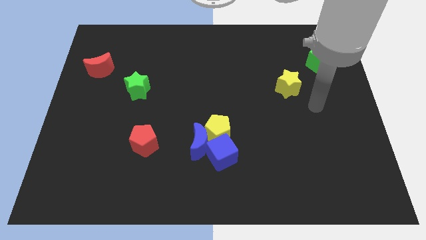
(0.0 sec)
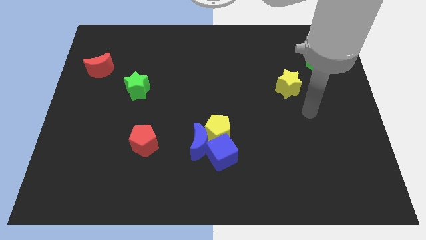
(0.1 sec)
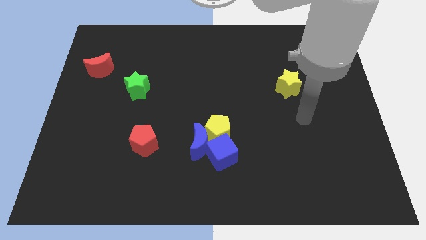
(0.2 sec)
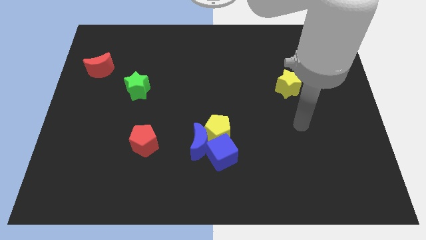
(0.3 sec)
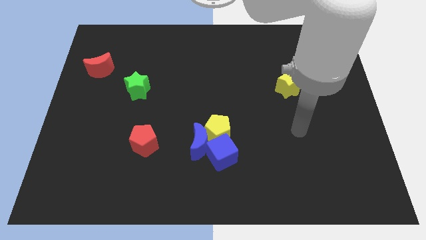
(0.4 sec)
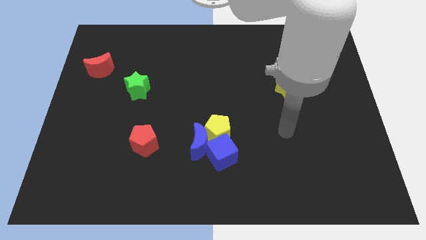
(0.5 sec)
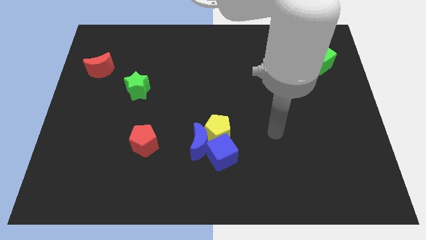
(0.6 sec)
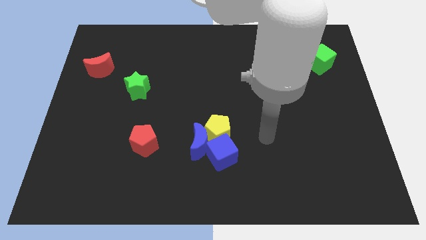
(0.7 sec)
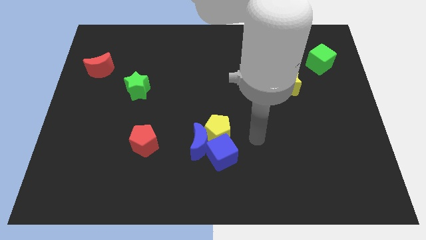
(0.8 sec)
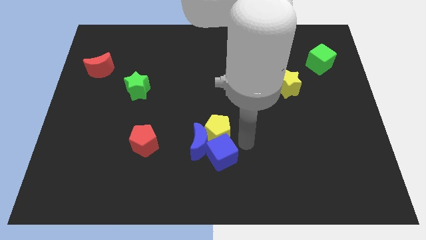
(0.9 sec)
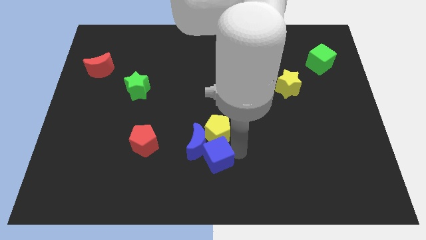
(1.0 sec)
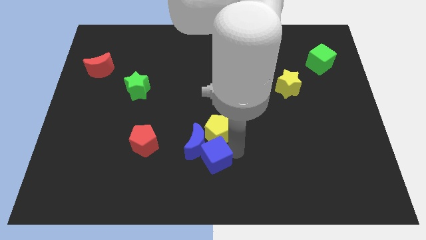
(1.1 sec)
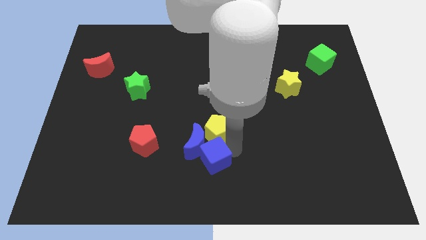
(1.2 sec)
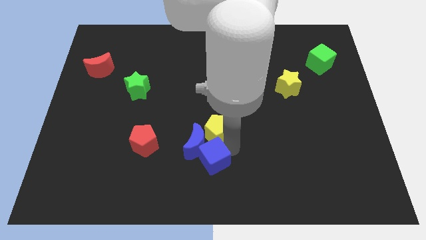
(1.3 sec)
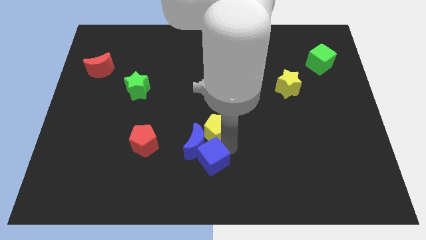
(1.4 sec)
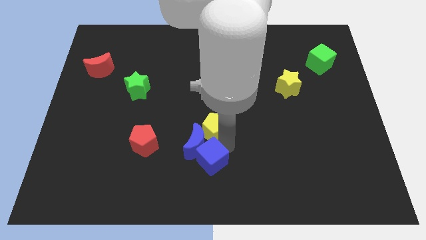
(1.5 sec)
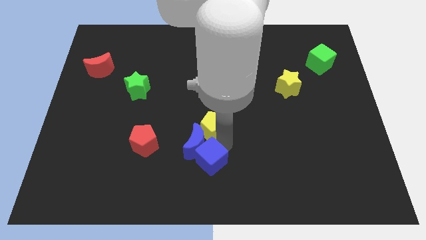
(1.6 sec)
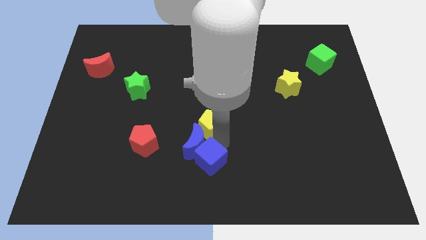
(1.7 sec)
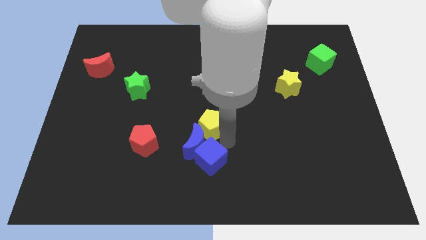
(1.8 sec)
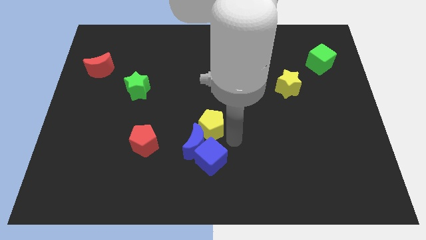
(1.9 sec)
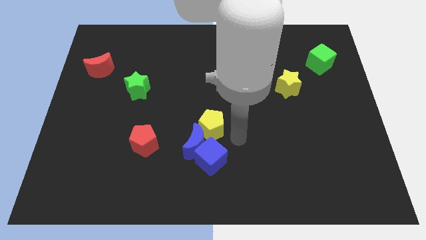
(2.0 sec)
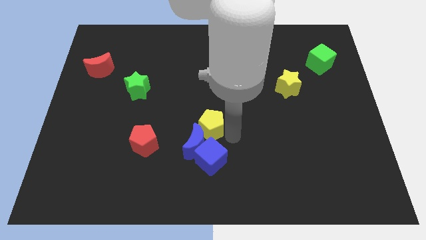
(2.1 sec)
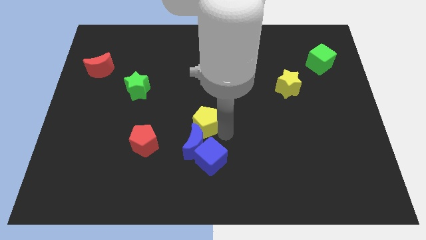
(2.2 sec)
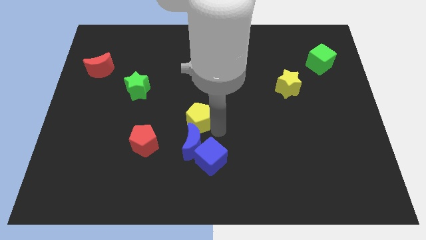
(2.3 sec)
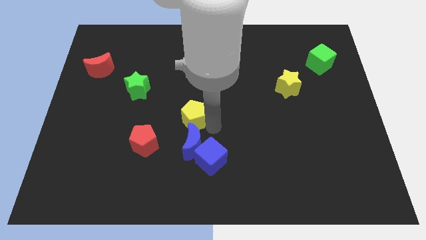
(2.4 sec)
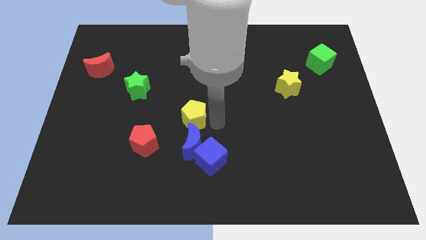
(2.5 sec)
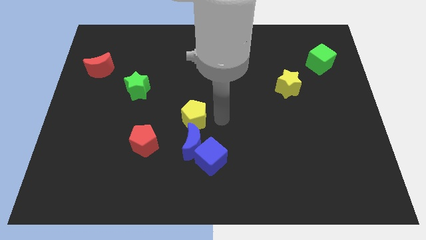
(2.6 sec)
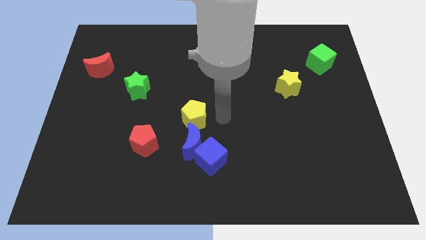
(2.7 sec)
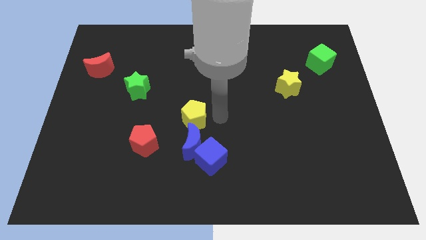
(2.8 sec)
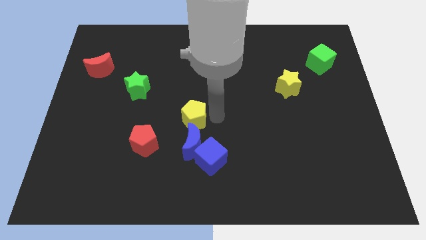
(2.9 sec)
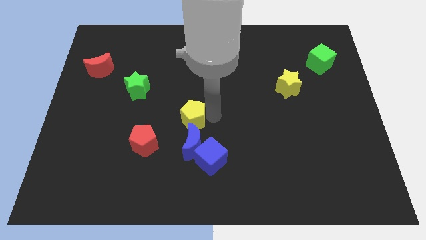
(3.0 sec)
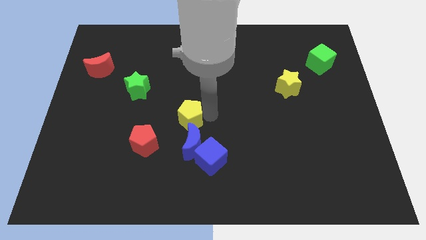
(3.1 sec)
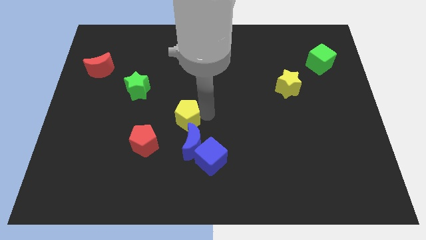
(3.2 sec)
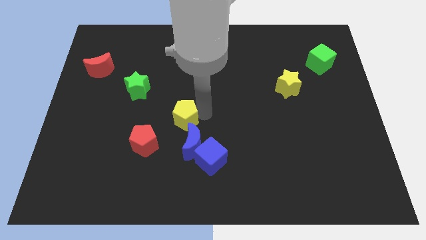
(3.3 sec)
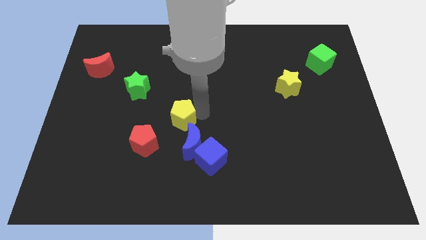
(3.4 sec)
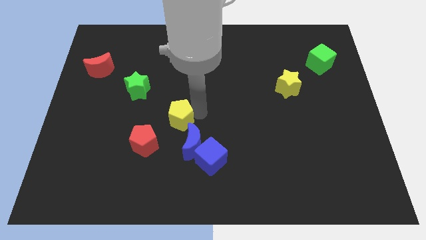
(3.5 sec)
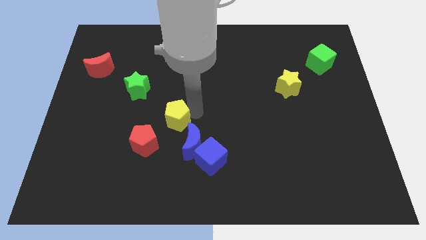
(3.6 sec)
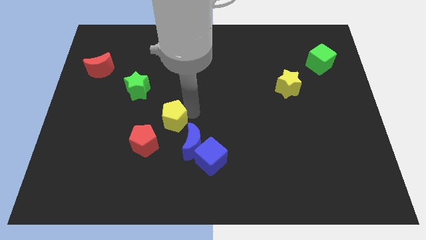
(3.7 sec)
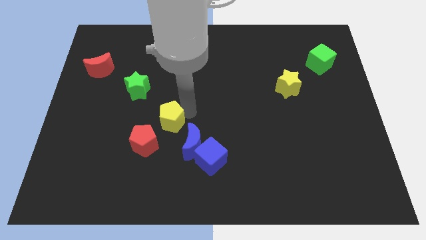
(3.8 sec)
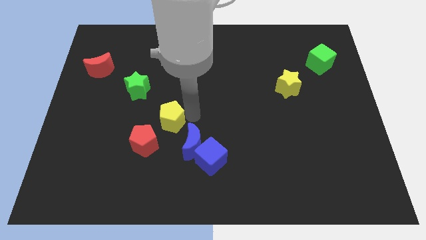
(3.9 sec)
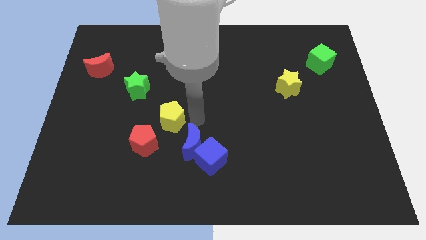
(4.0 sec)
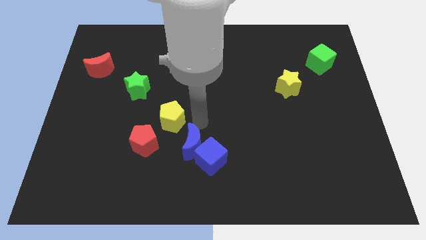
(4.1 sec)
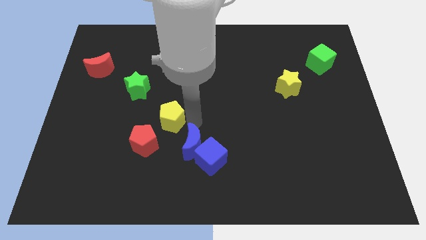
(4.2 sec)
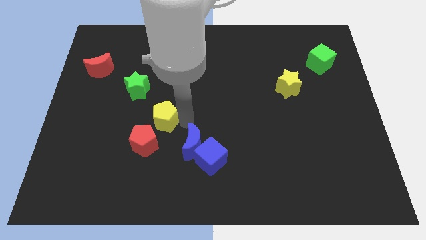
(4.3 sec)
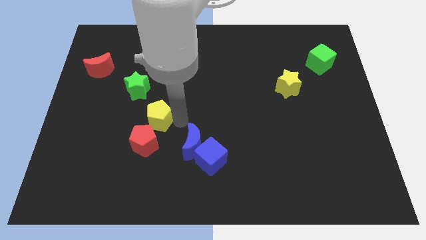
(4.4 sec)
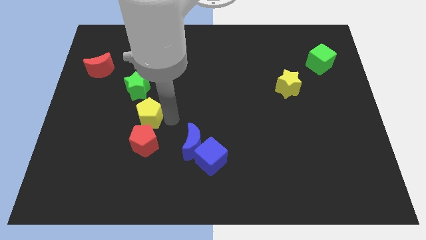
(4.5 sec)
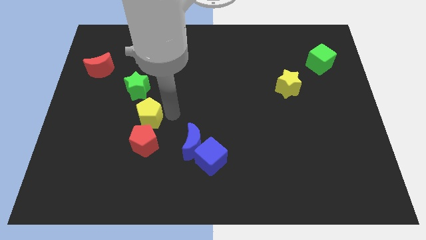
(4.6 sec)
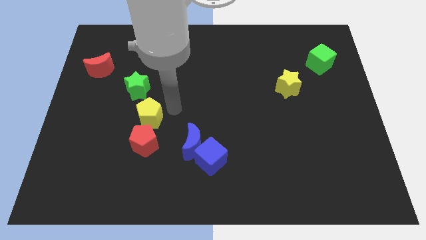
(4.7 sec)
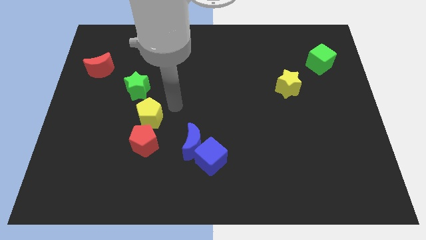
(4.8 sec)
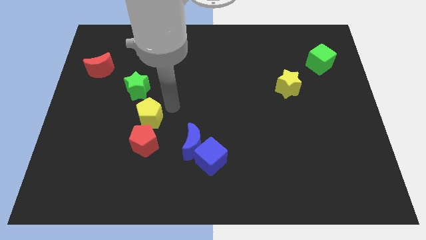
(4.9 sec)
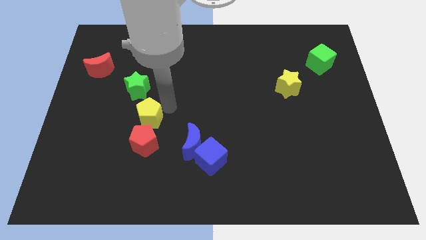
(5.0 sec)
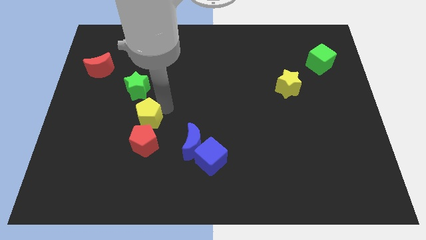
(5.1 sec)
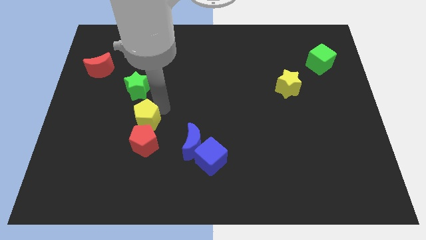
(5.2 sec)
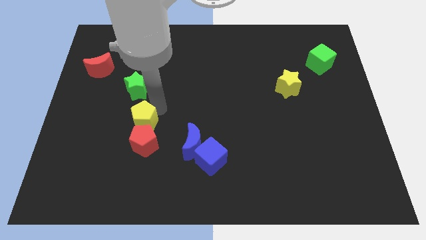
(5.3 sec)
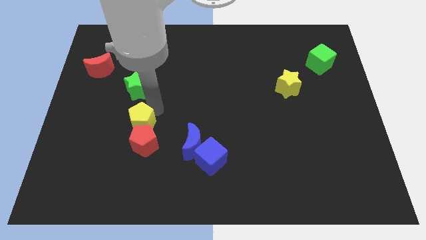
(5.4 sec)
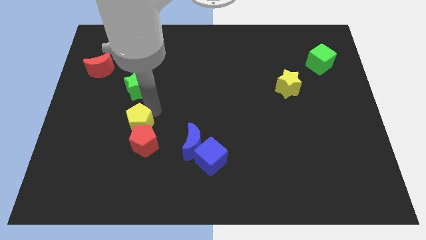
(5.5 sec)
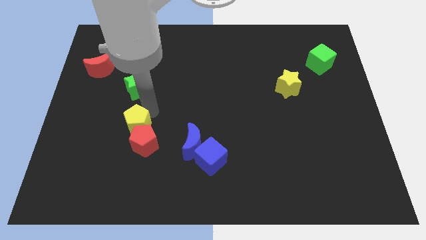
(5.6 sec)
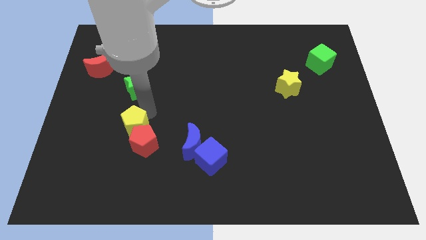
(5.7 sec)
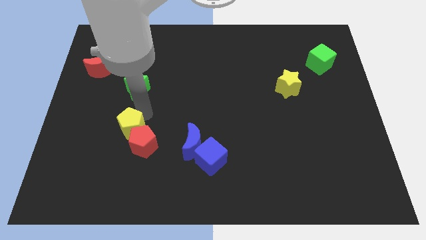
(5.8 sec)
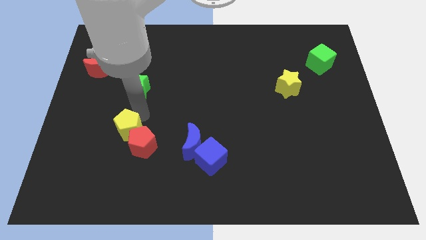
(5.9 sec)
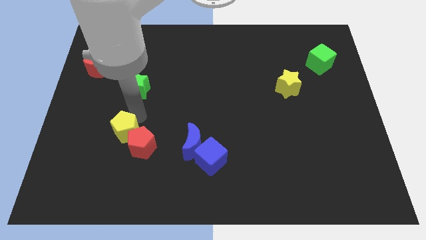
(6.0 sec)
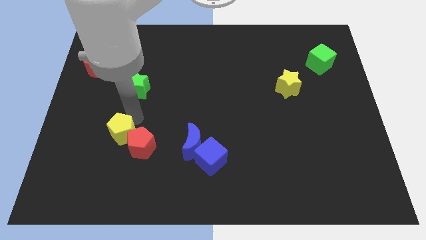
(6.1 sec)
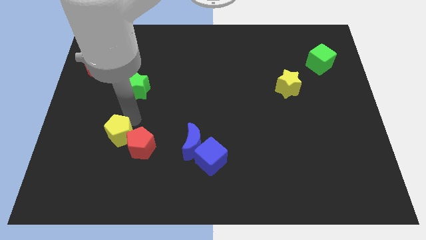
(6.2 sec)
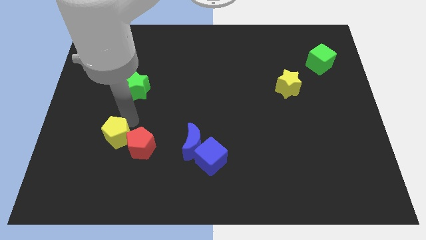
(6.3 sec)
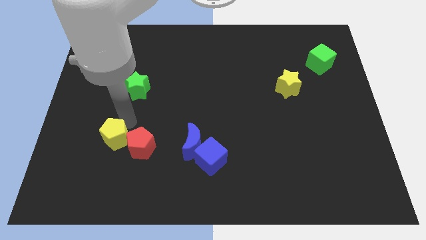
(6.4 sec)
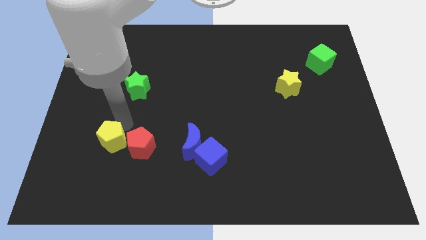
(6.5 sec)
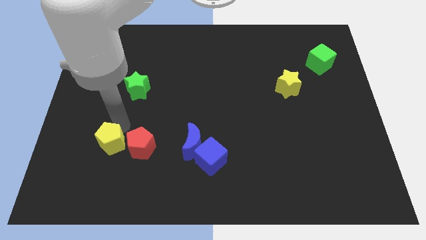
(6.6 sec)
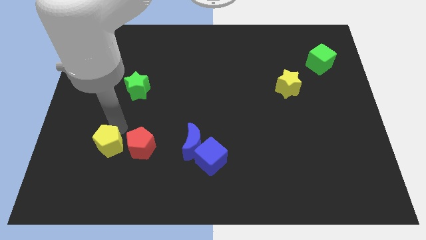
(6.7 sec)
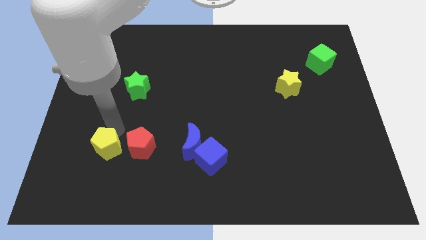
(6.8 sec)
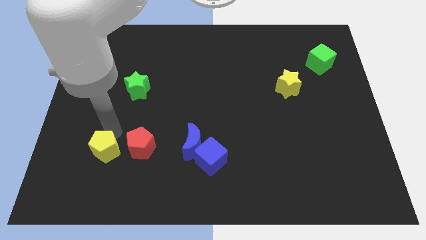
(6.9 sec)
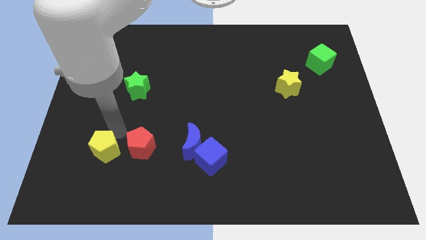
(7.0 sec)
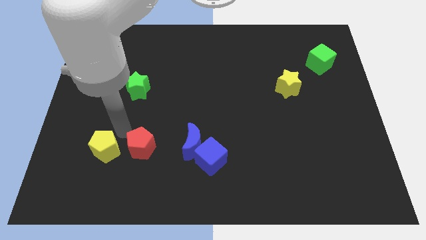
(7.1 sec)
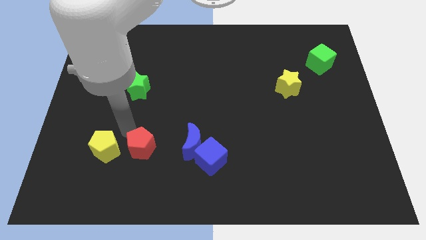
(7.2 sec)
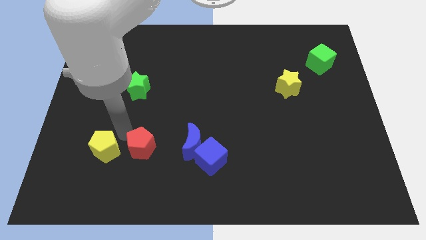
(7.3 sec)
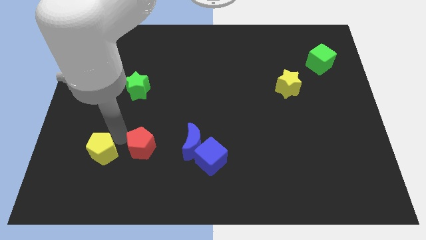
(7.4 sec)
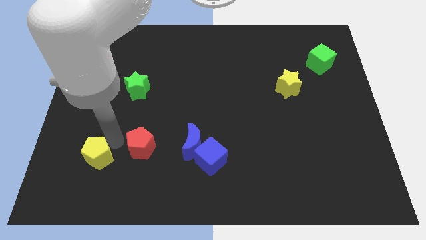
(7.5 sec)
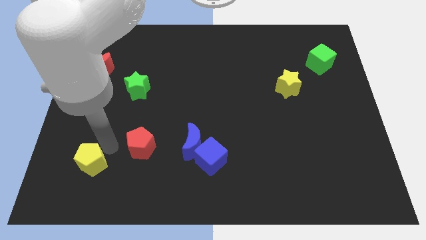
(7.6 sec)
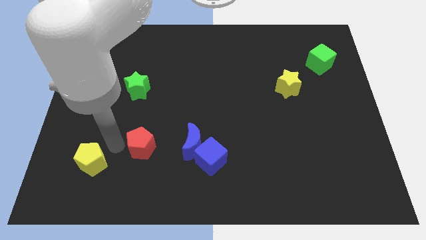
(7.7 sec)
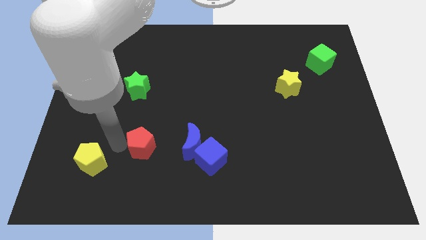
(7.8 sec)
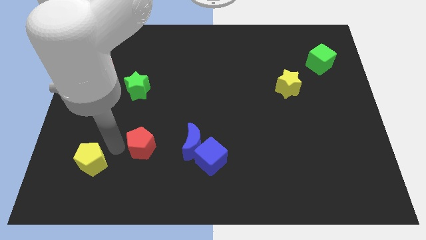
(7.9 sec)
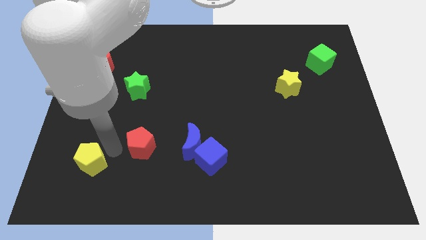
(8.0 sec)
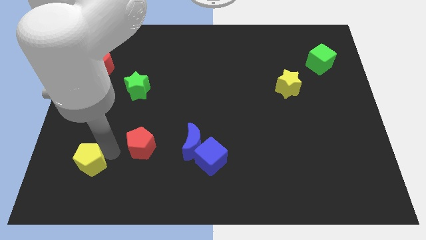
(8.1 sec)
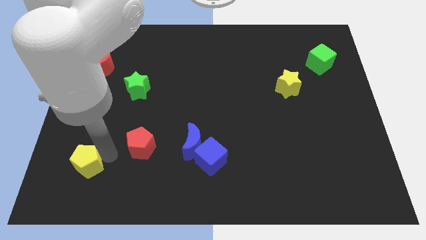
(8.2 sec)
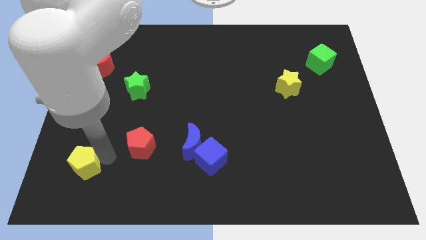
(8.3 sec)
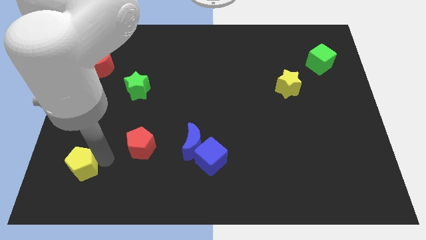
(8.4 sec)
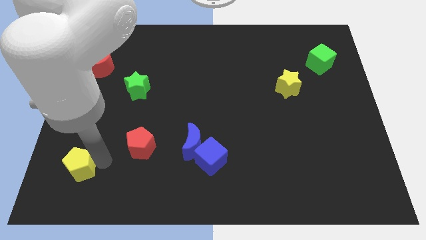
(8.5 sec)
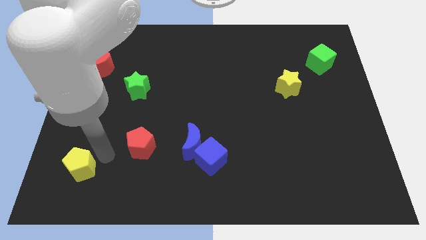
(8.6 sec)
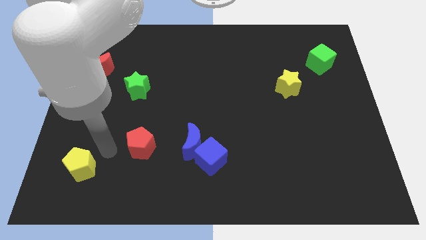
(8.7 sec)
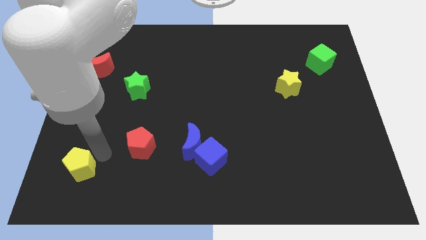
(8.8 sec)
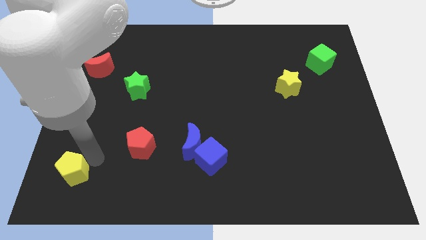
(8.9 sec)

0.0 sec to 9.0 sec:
push the yellow pentagon to the lower left corner
